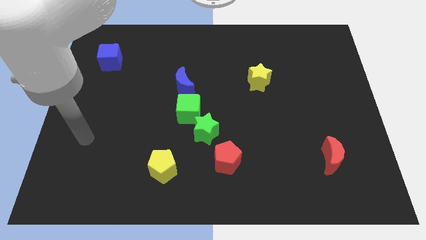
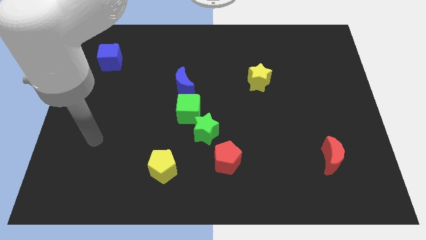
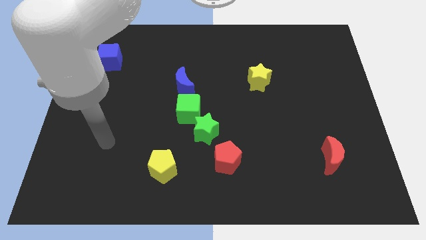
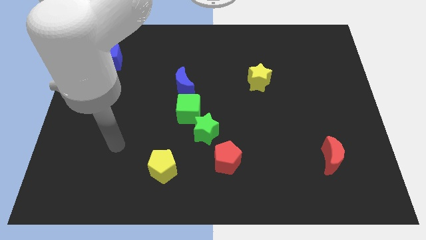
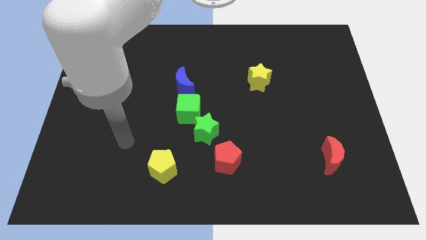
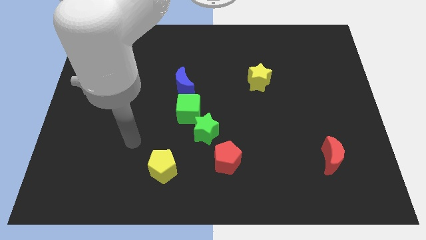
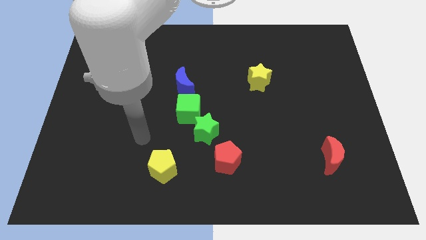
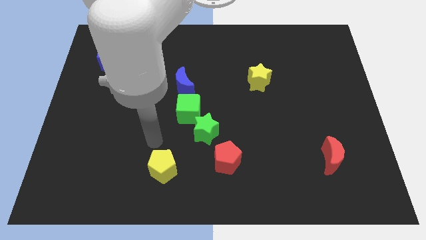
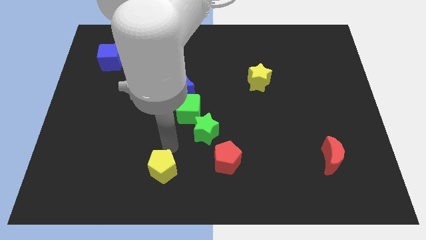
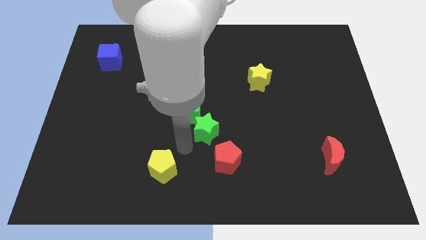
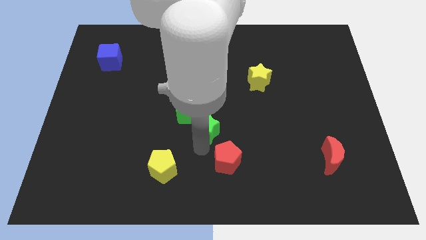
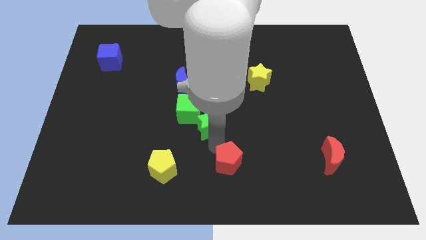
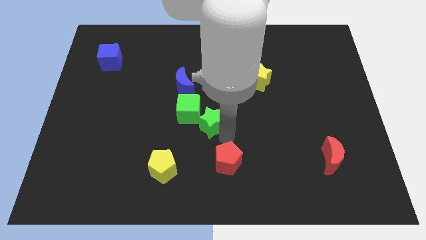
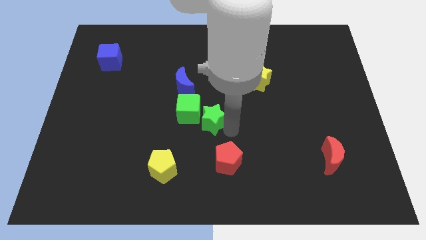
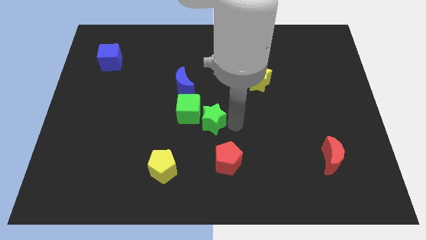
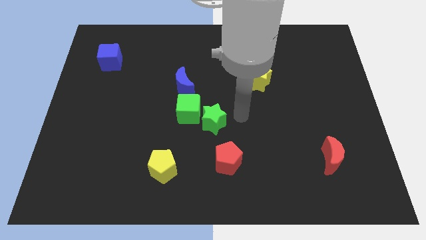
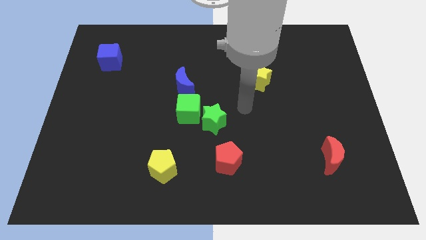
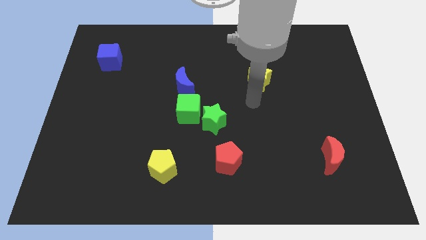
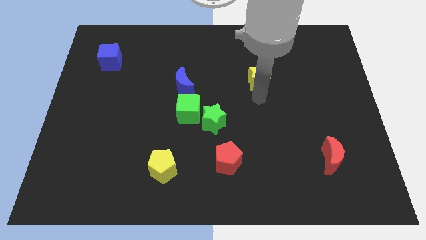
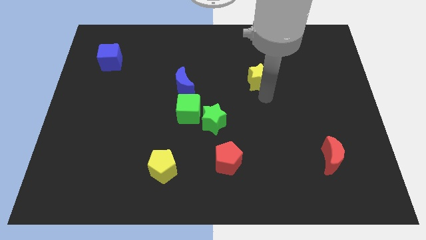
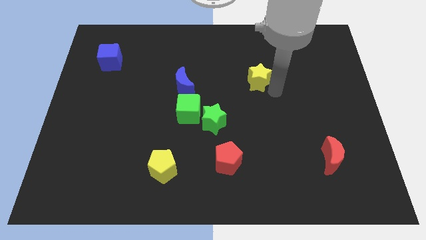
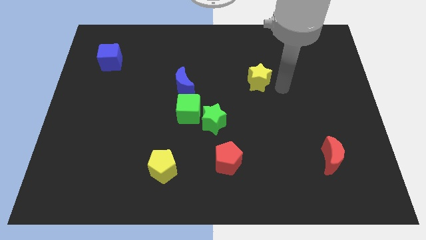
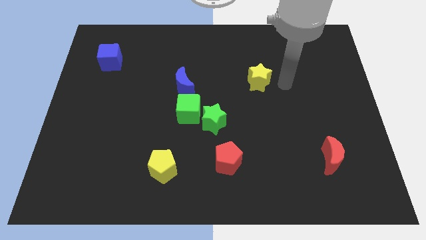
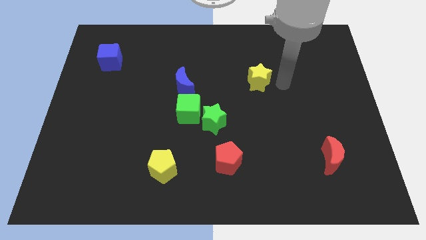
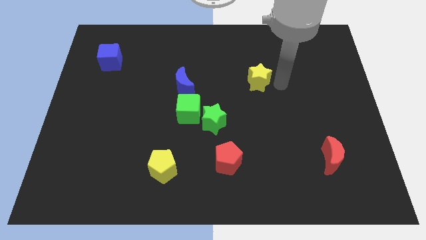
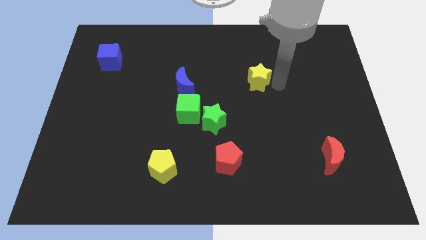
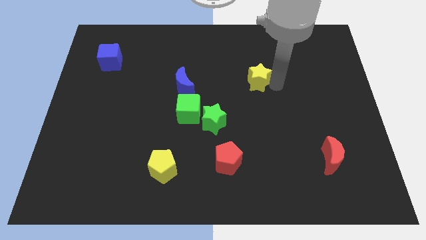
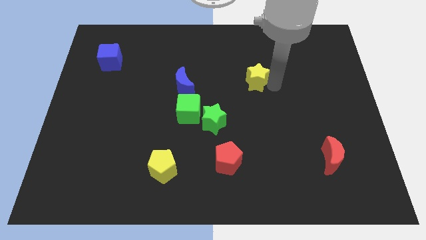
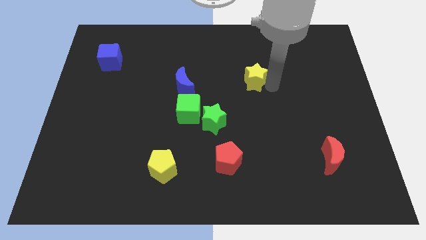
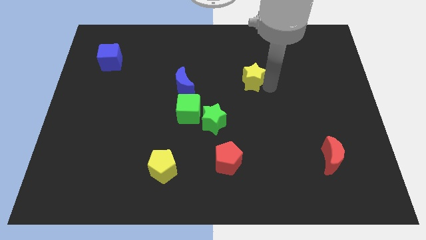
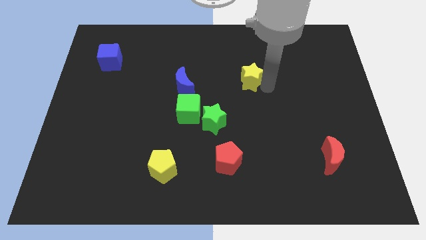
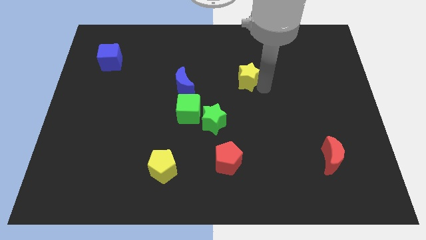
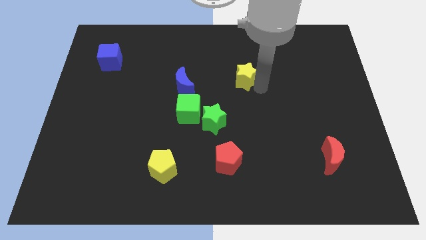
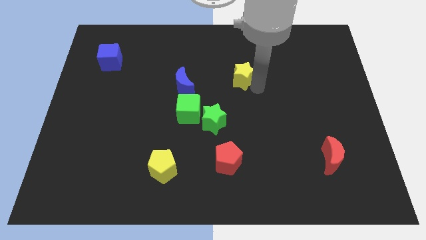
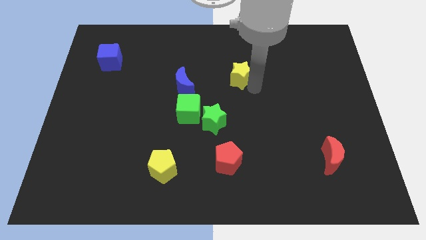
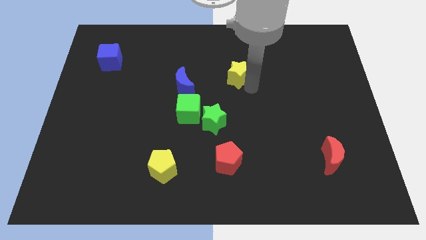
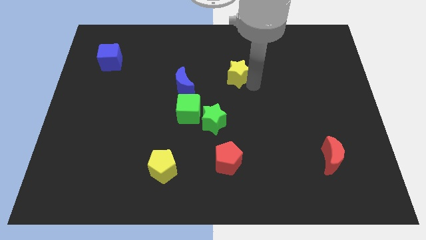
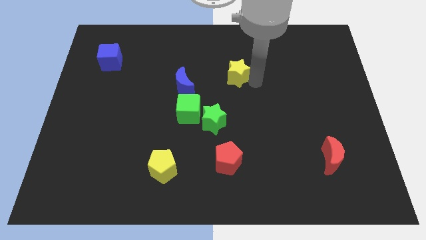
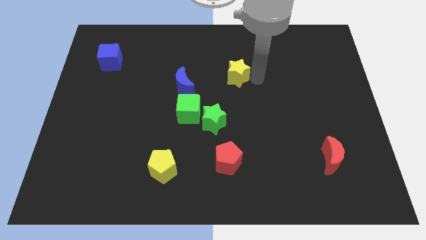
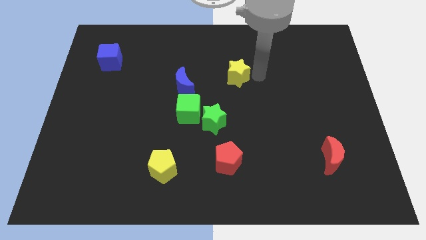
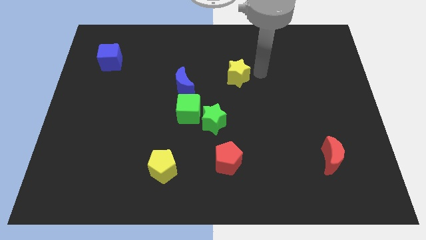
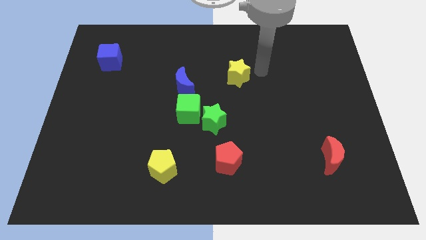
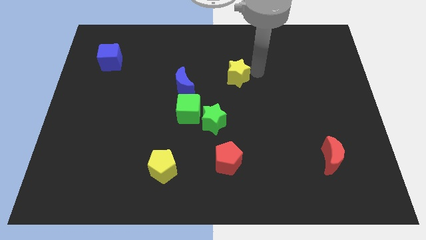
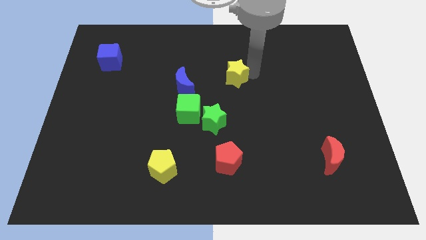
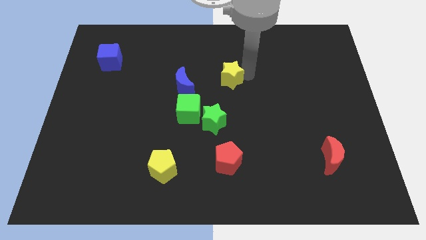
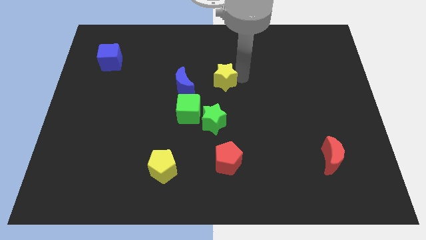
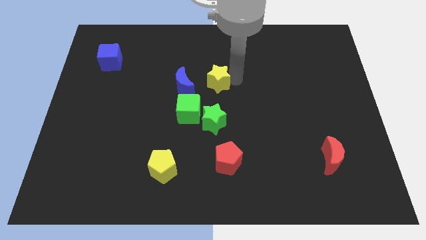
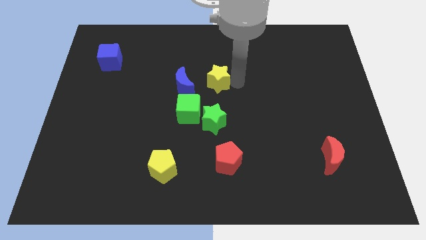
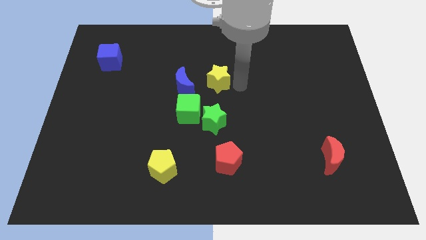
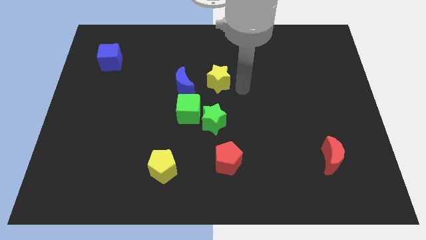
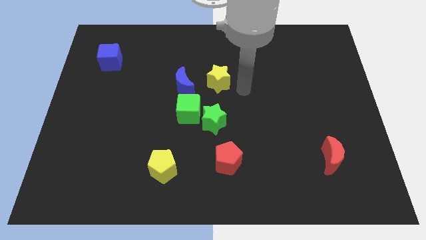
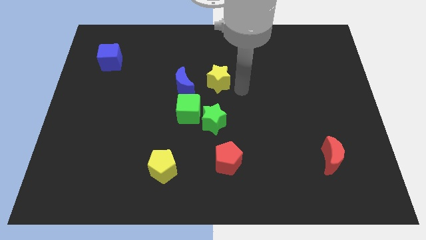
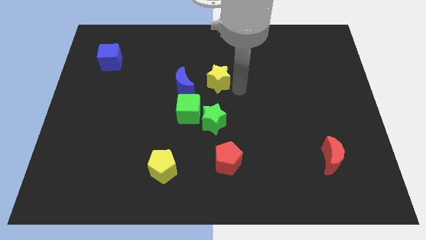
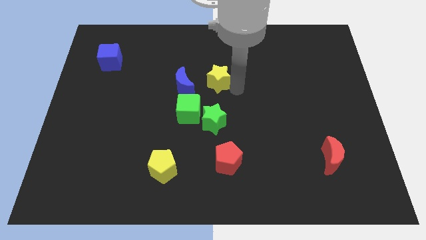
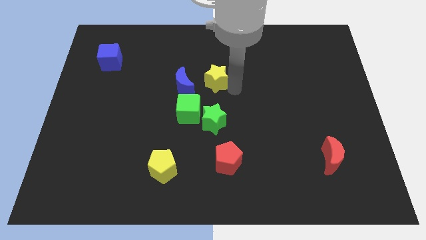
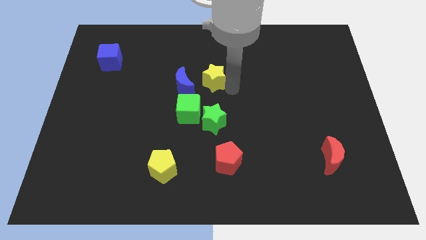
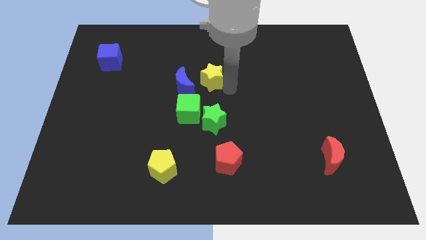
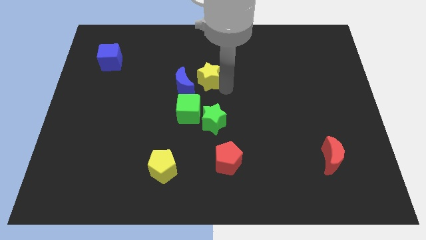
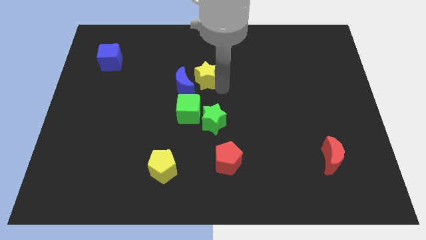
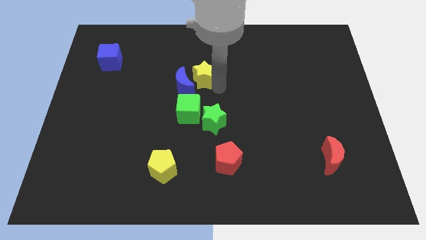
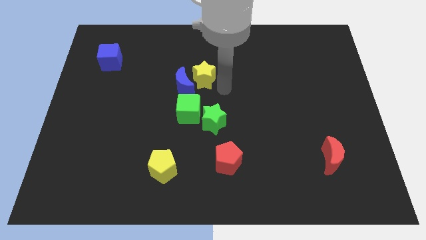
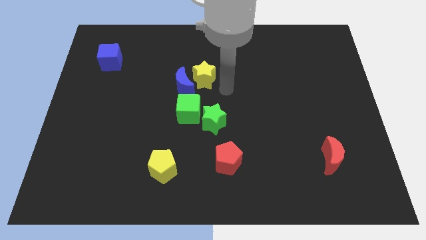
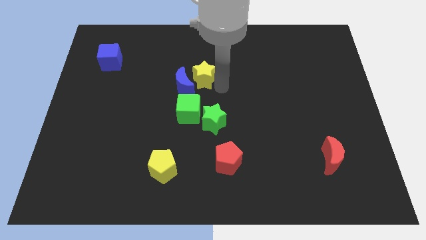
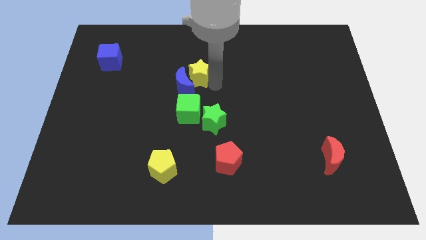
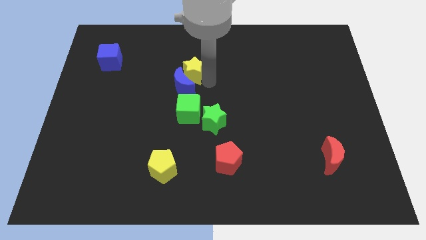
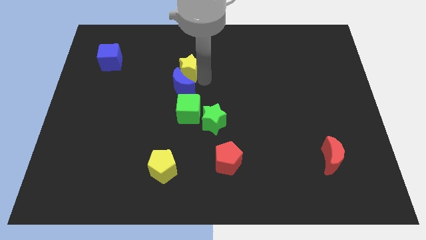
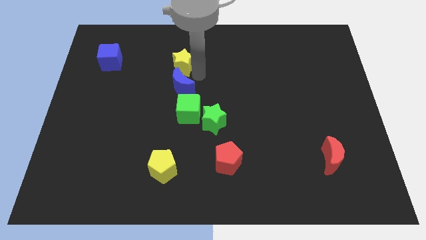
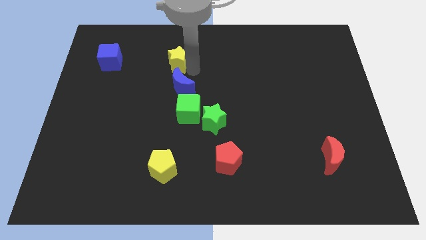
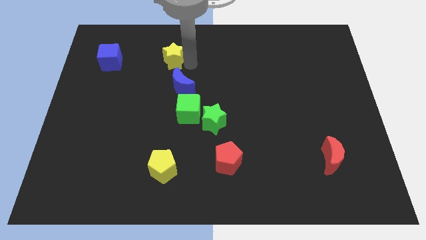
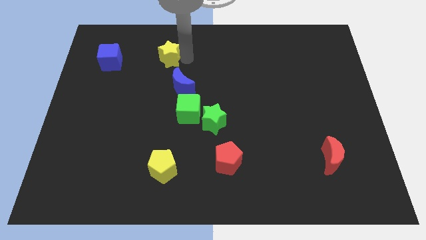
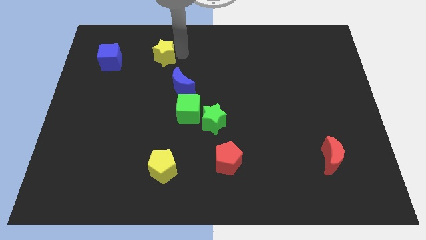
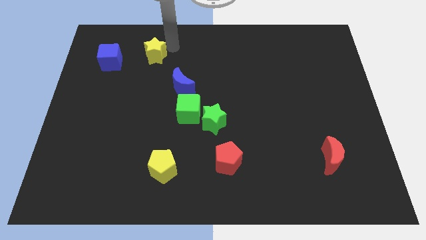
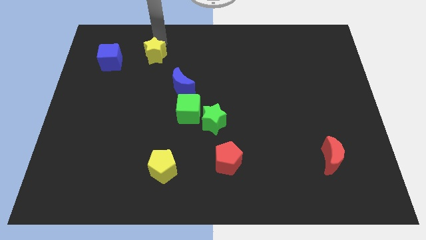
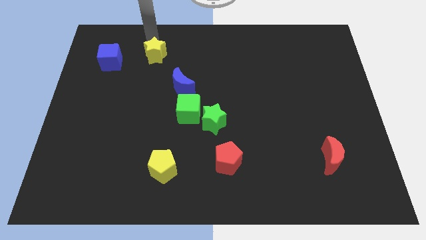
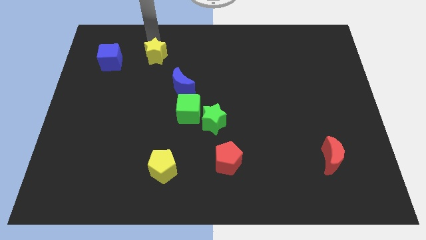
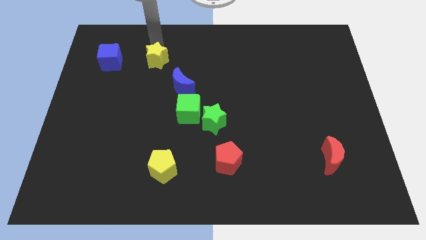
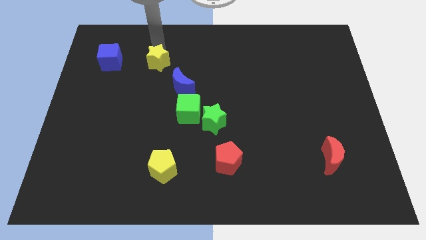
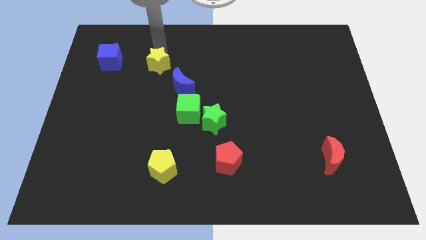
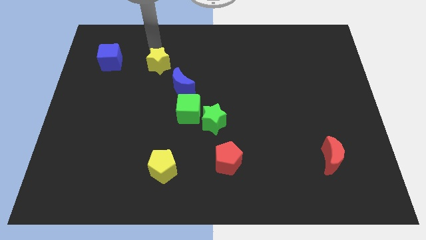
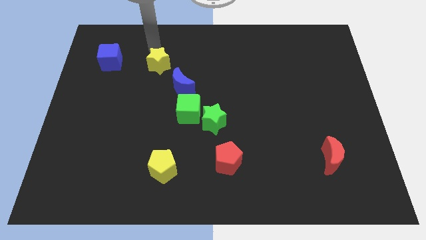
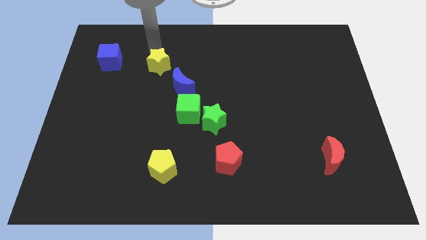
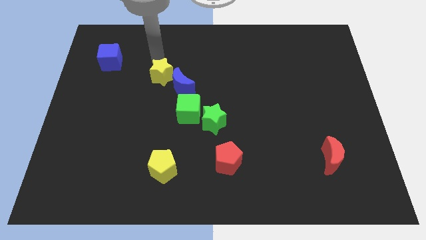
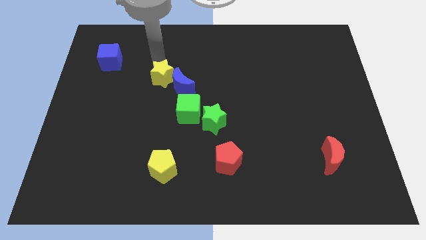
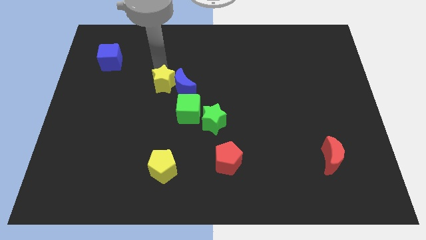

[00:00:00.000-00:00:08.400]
move the yellow star to the top left side of the green cube
